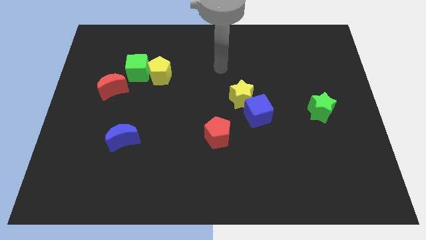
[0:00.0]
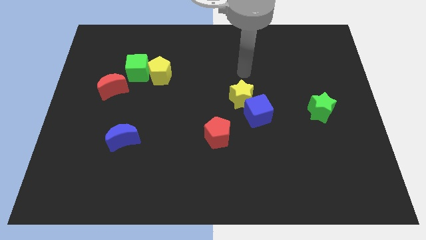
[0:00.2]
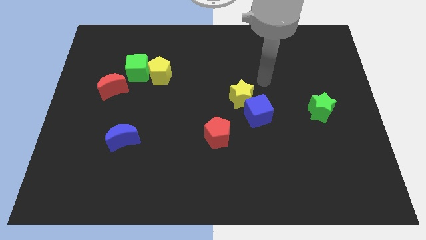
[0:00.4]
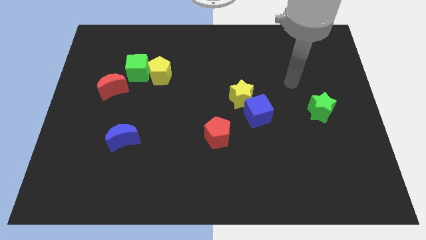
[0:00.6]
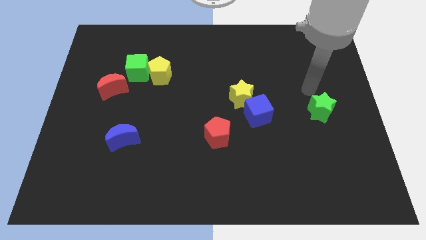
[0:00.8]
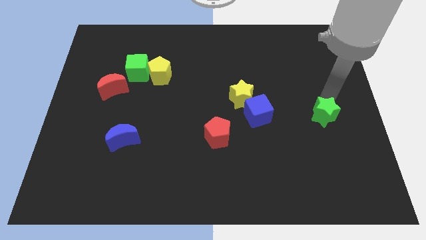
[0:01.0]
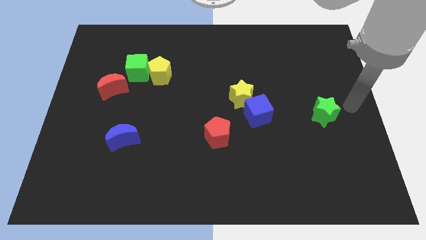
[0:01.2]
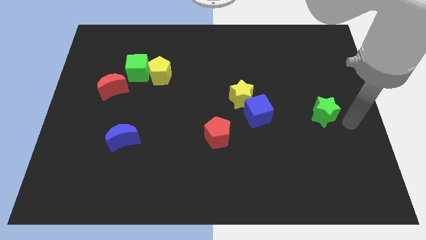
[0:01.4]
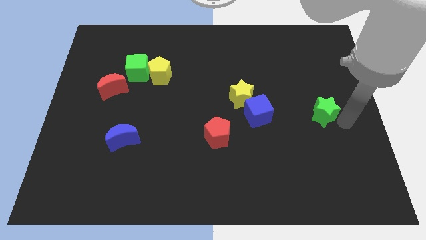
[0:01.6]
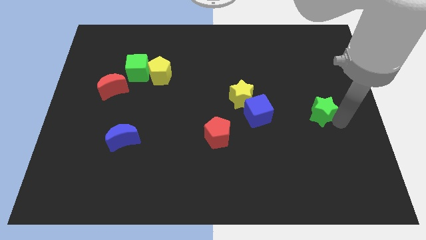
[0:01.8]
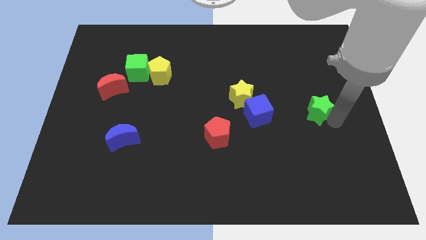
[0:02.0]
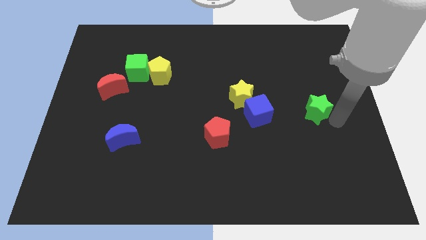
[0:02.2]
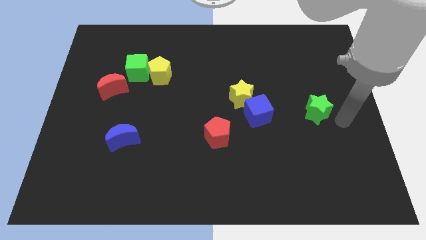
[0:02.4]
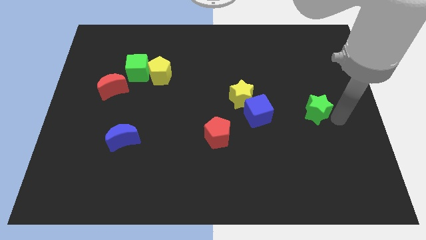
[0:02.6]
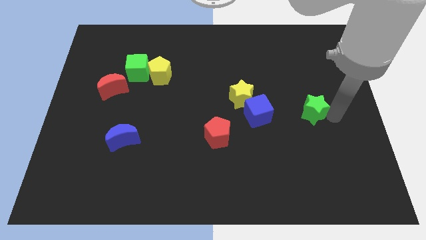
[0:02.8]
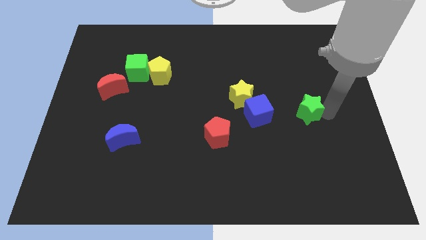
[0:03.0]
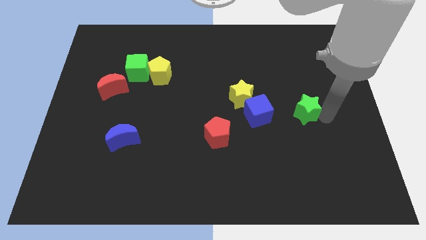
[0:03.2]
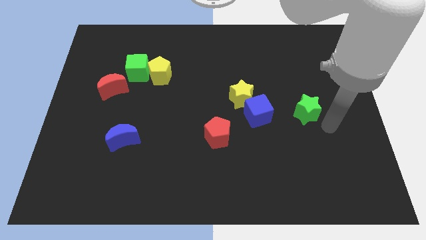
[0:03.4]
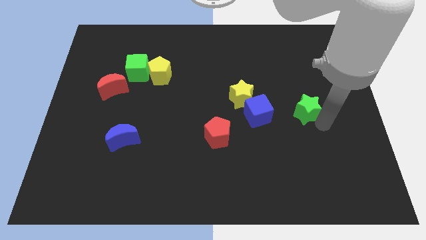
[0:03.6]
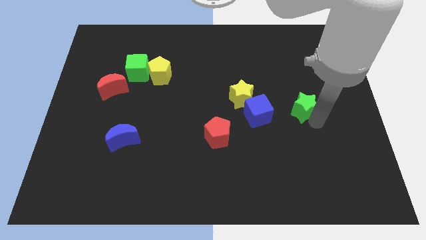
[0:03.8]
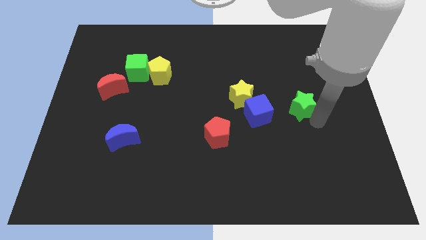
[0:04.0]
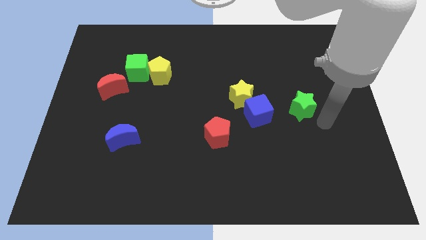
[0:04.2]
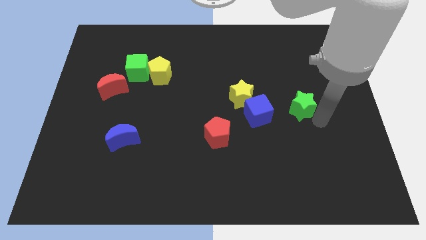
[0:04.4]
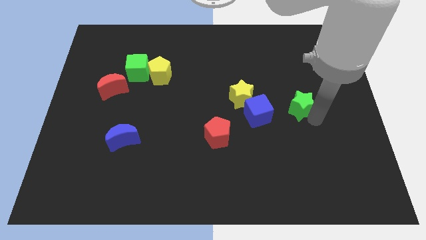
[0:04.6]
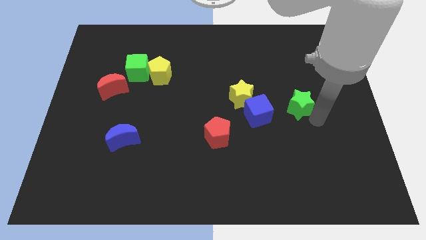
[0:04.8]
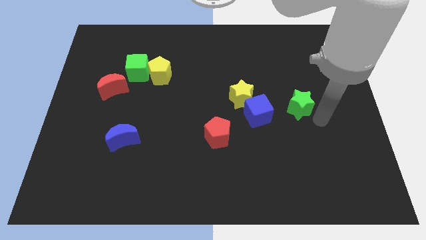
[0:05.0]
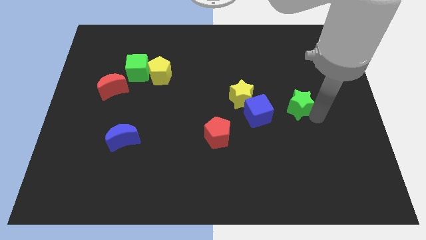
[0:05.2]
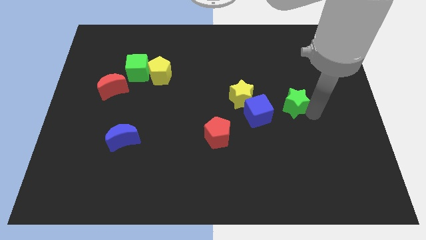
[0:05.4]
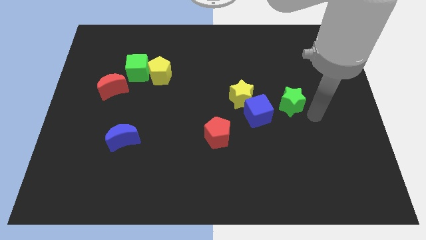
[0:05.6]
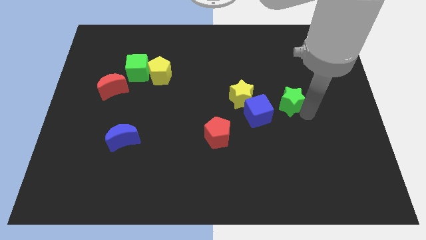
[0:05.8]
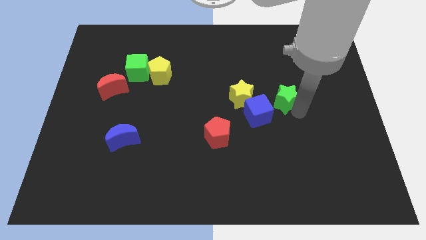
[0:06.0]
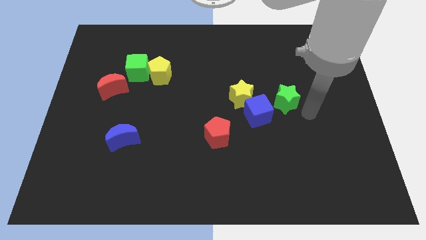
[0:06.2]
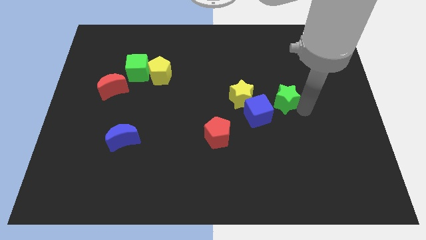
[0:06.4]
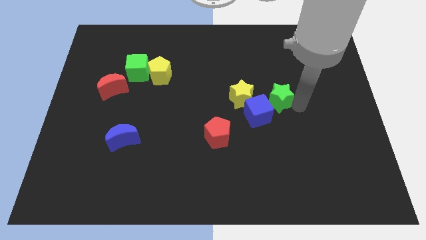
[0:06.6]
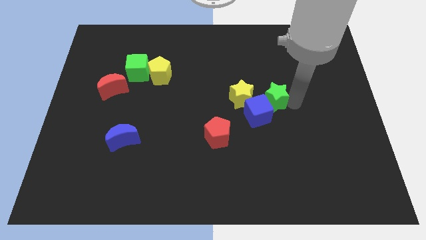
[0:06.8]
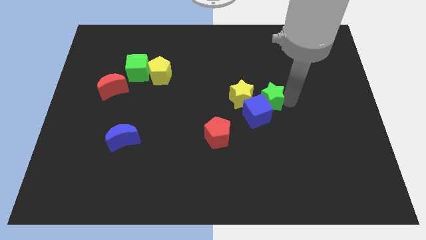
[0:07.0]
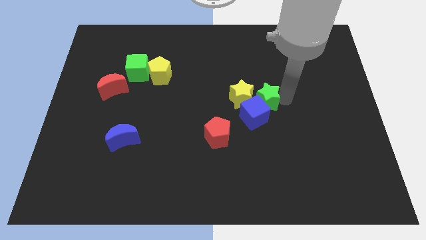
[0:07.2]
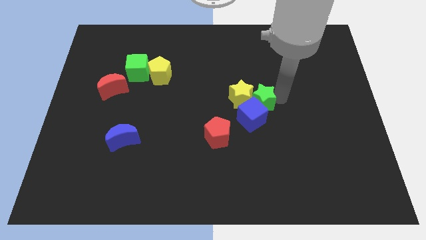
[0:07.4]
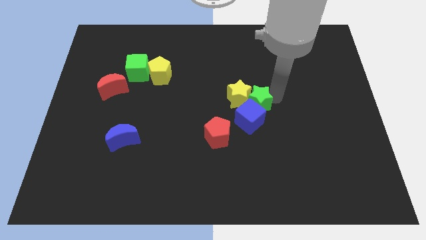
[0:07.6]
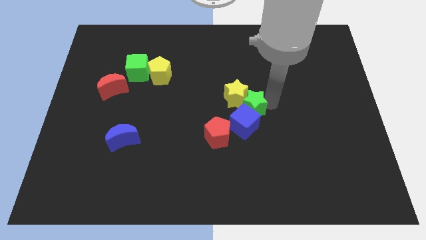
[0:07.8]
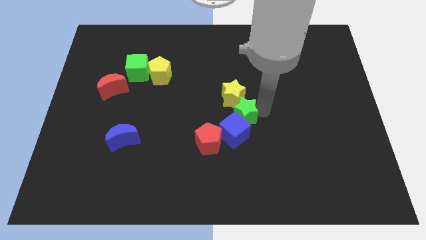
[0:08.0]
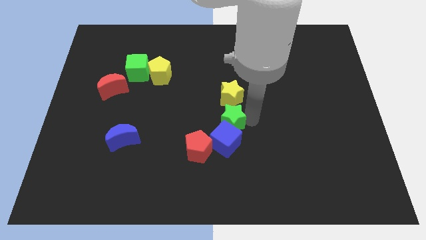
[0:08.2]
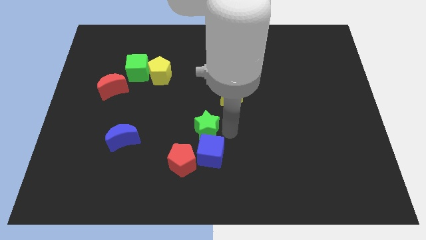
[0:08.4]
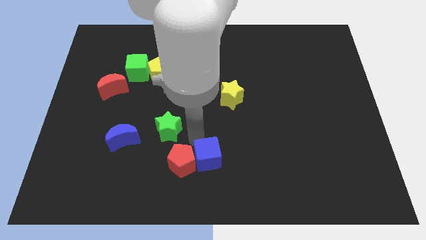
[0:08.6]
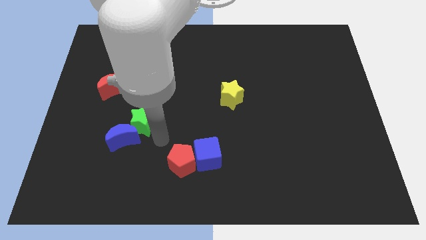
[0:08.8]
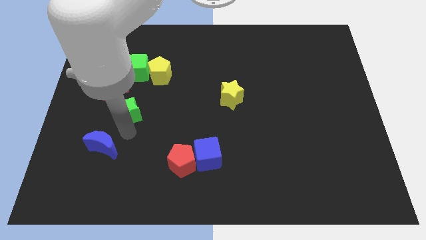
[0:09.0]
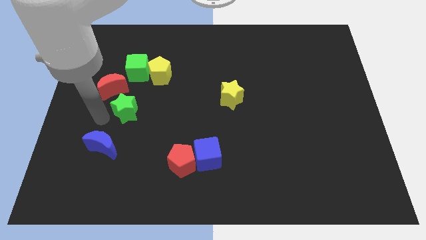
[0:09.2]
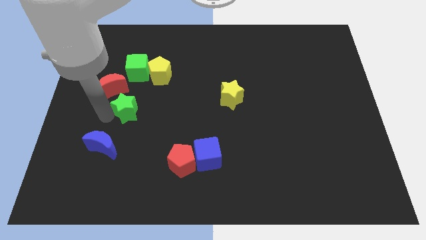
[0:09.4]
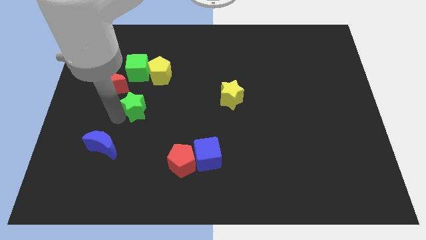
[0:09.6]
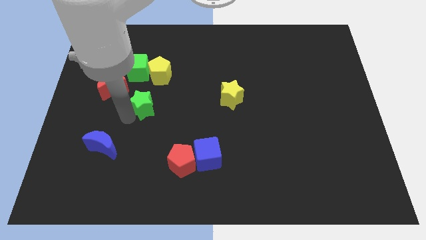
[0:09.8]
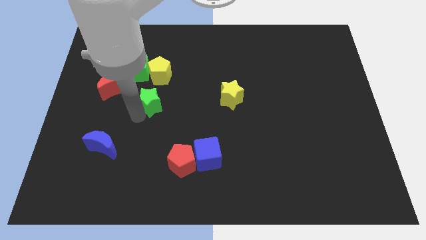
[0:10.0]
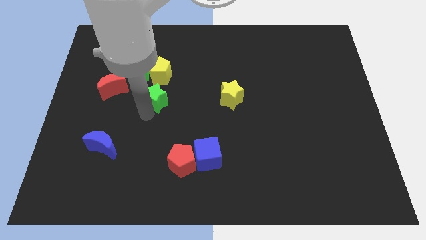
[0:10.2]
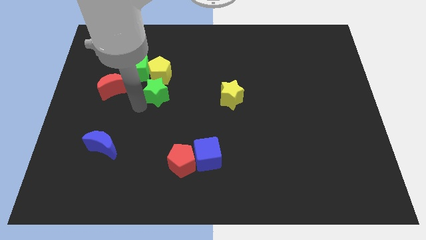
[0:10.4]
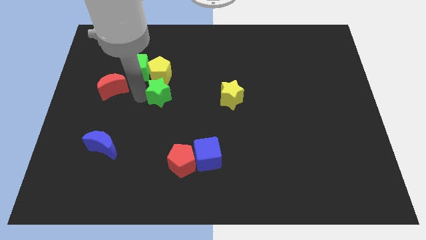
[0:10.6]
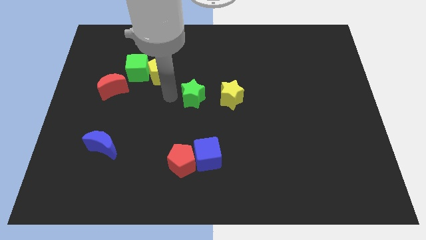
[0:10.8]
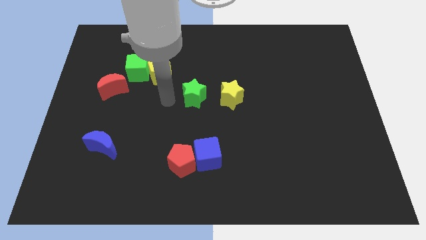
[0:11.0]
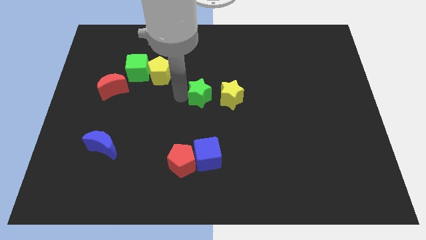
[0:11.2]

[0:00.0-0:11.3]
slide the green star to the top left side of the yellow star

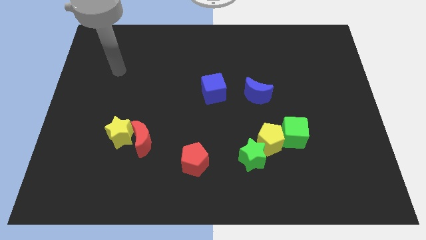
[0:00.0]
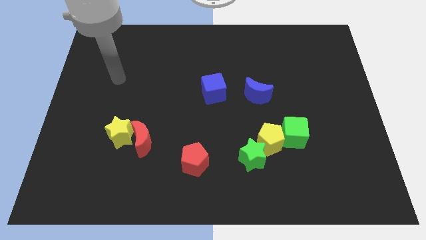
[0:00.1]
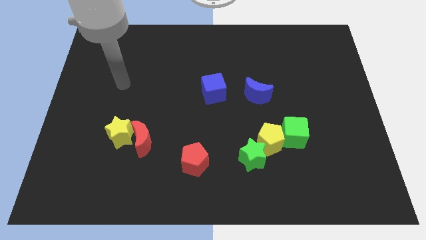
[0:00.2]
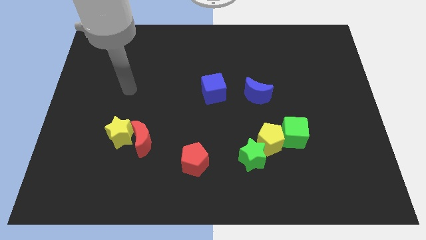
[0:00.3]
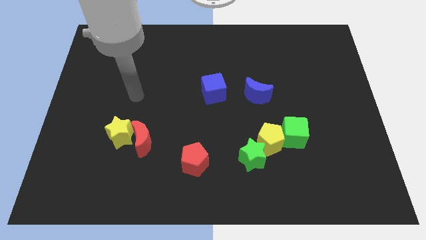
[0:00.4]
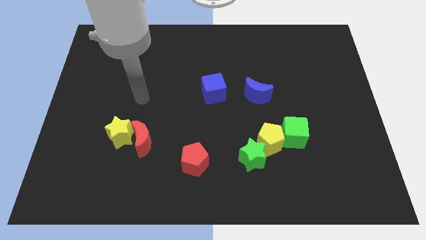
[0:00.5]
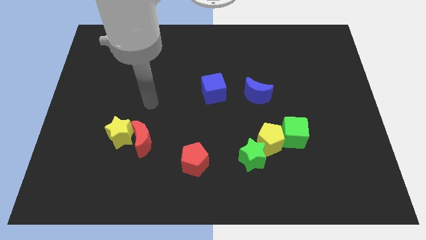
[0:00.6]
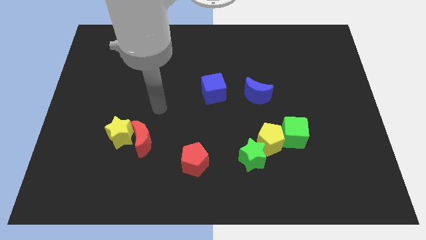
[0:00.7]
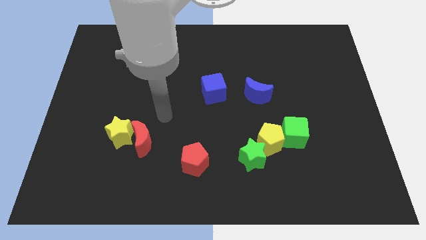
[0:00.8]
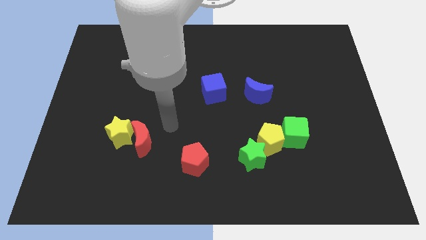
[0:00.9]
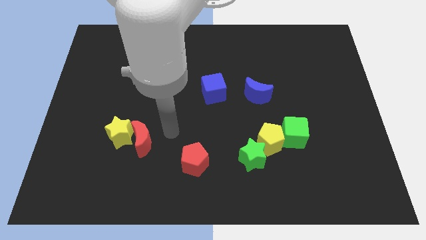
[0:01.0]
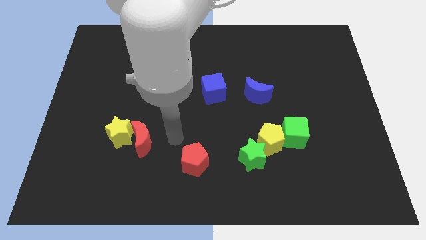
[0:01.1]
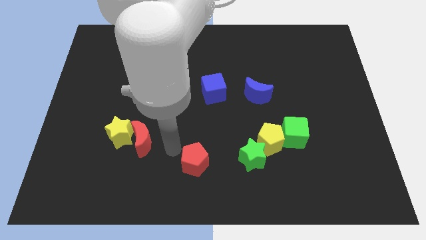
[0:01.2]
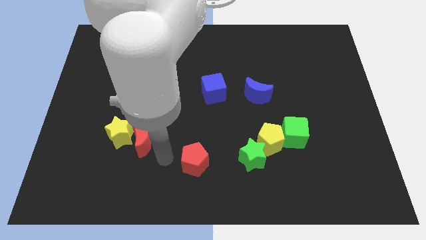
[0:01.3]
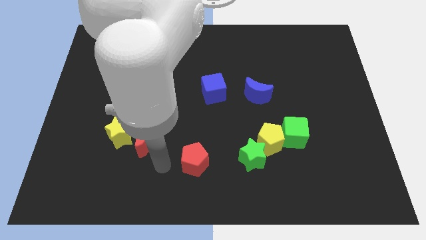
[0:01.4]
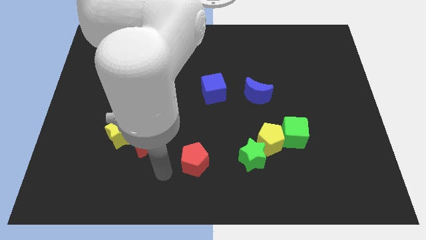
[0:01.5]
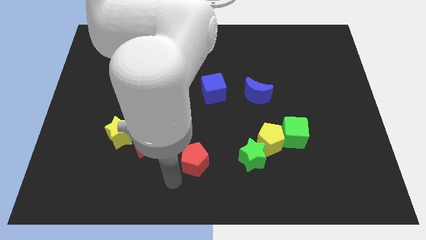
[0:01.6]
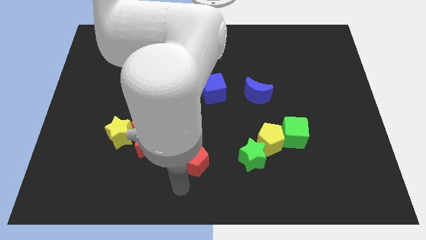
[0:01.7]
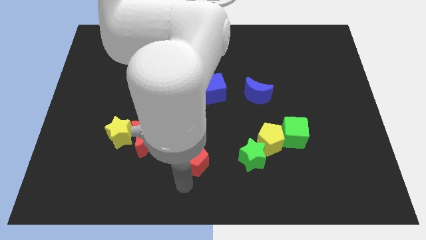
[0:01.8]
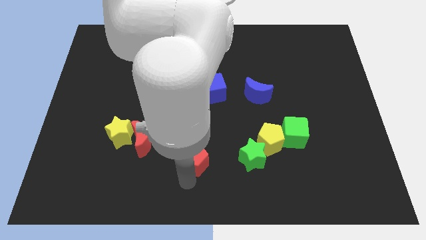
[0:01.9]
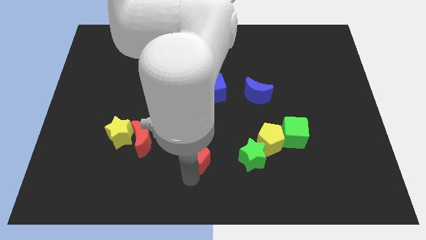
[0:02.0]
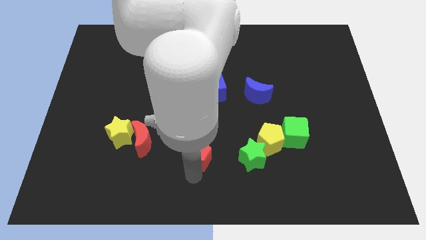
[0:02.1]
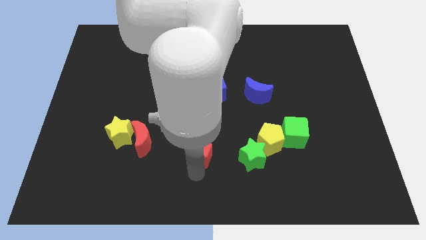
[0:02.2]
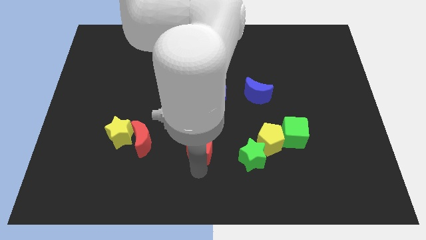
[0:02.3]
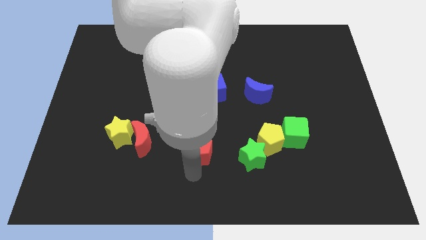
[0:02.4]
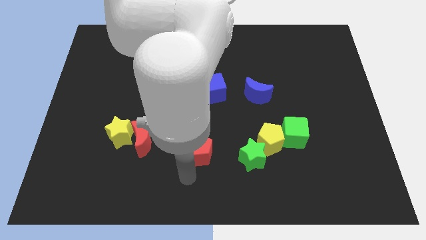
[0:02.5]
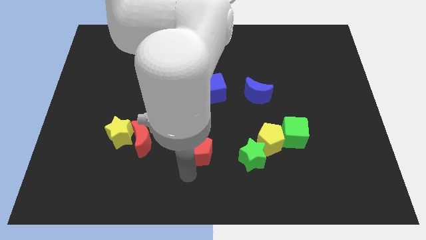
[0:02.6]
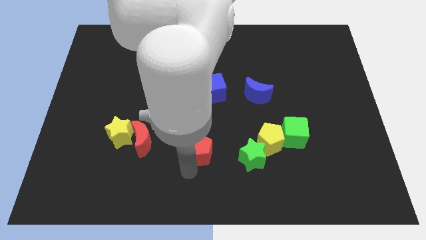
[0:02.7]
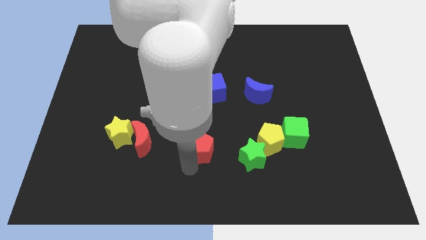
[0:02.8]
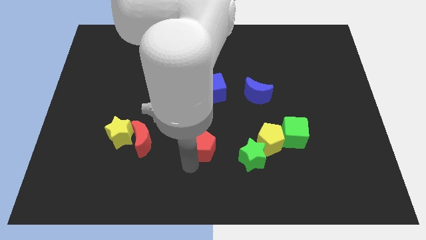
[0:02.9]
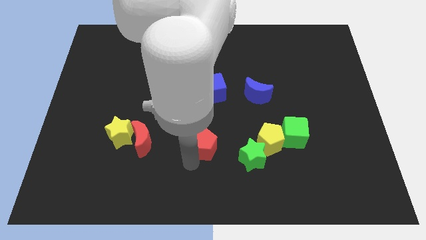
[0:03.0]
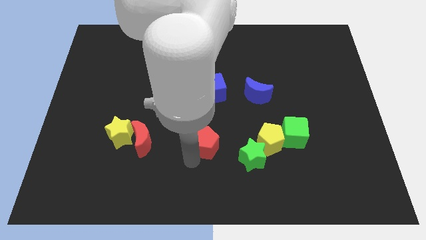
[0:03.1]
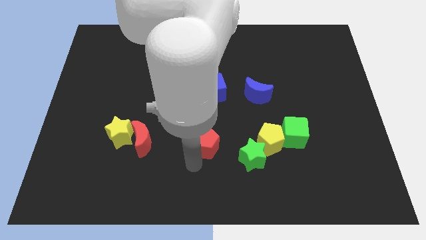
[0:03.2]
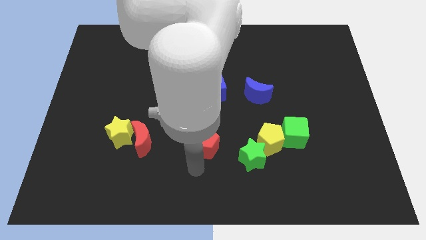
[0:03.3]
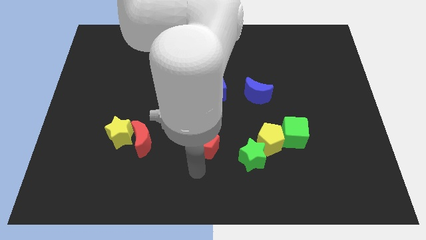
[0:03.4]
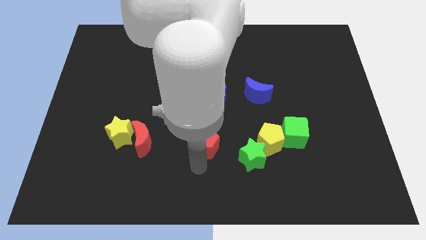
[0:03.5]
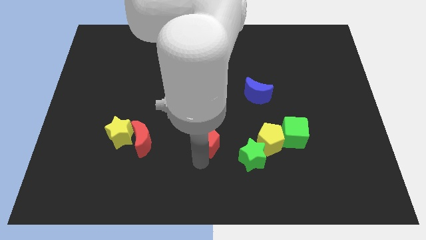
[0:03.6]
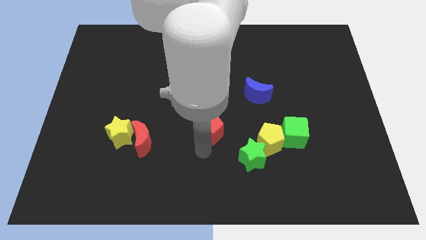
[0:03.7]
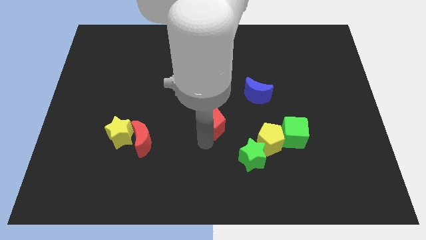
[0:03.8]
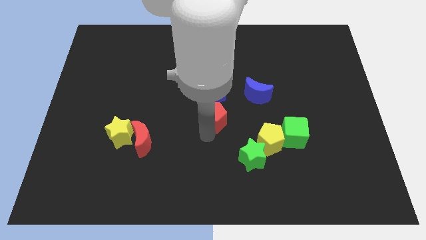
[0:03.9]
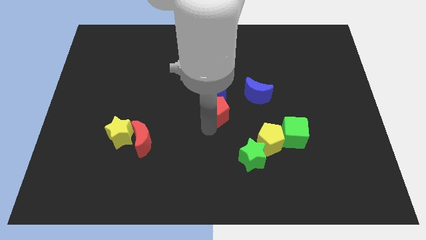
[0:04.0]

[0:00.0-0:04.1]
move the red pentagon to the bottom right side of the blue cube
